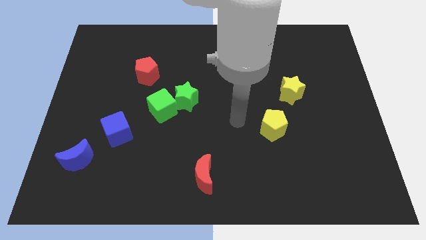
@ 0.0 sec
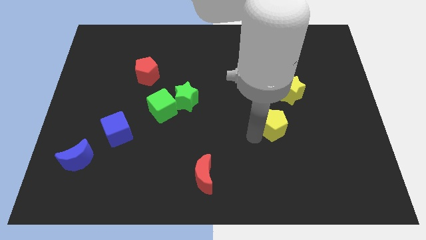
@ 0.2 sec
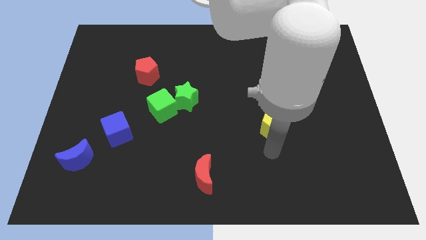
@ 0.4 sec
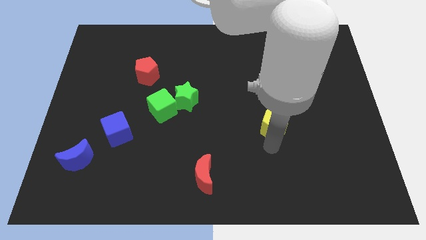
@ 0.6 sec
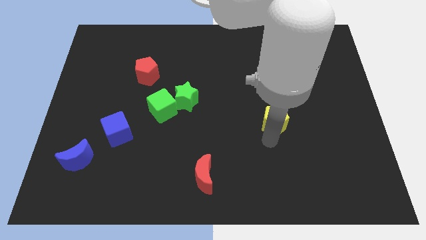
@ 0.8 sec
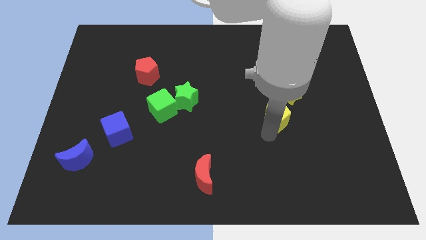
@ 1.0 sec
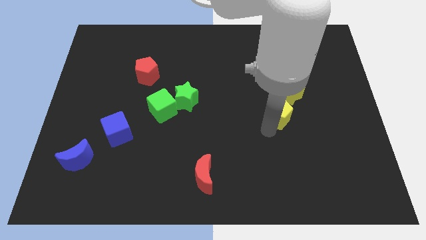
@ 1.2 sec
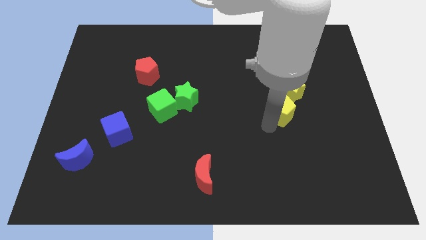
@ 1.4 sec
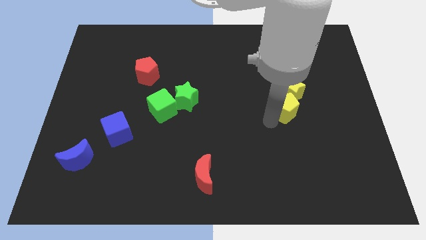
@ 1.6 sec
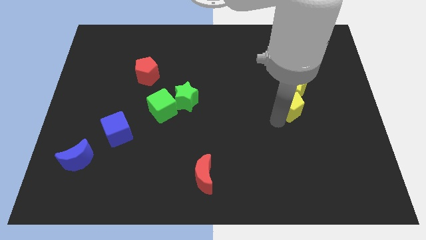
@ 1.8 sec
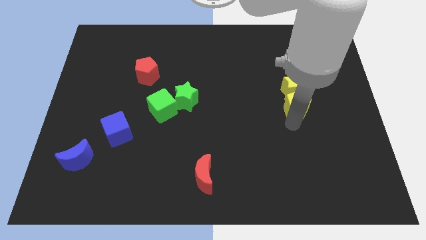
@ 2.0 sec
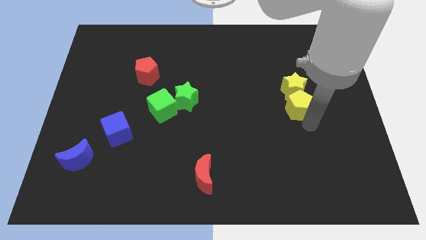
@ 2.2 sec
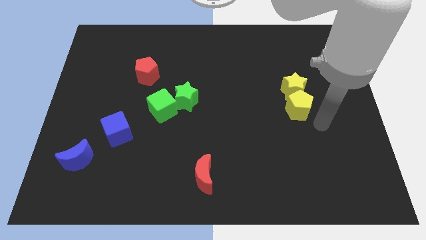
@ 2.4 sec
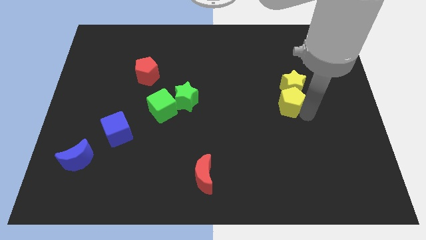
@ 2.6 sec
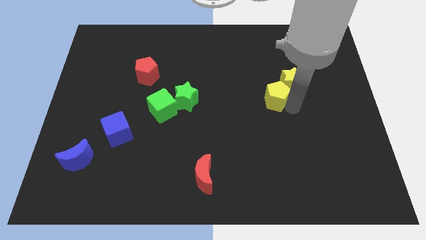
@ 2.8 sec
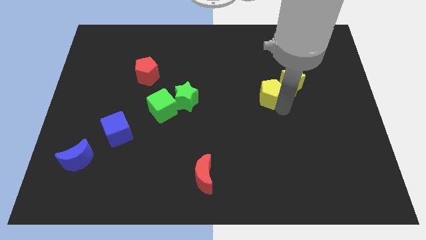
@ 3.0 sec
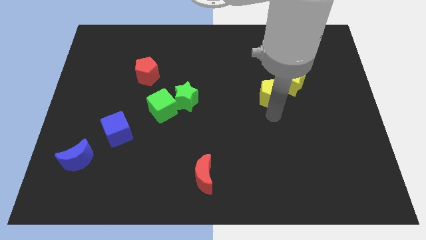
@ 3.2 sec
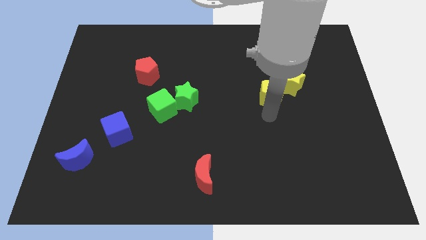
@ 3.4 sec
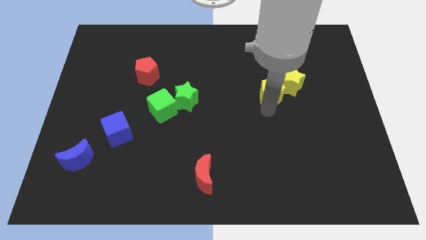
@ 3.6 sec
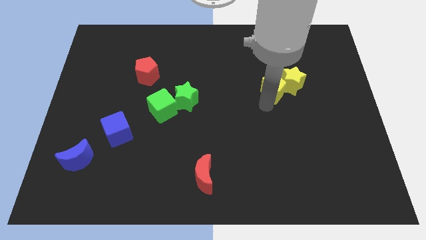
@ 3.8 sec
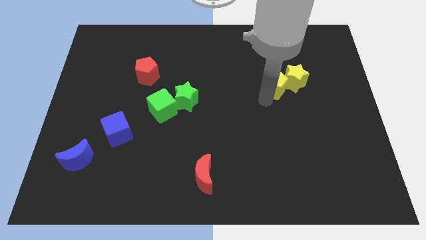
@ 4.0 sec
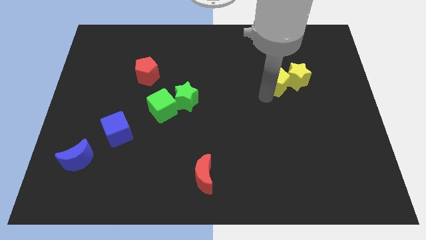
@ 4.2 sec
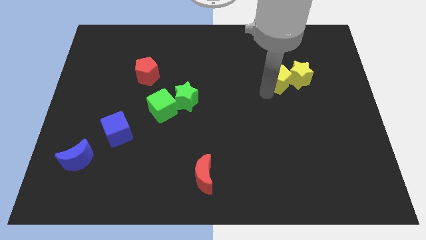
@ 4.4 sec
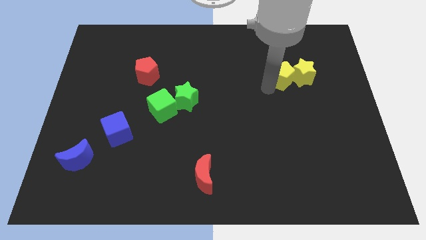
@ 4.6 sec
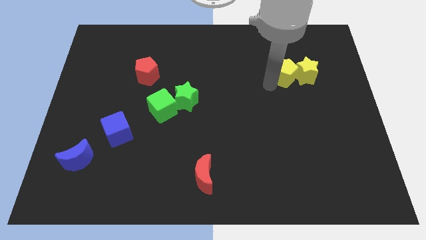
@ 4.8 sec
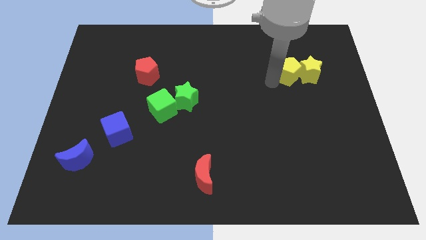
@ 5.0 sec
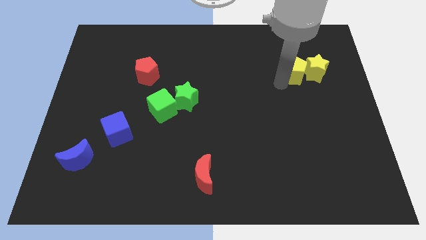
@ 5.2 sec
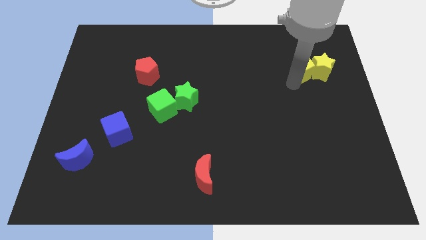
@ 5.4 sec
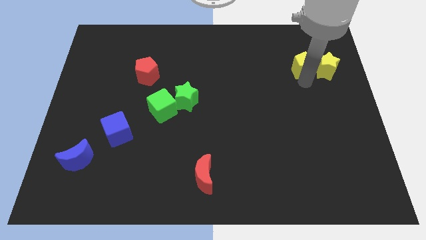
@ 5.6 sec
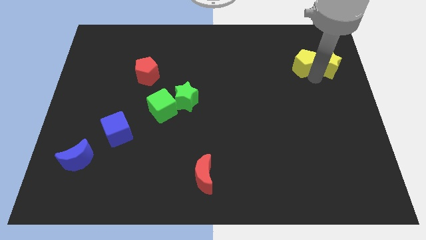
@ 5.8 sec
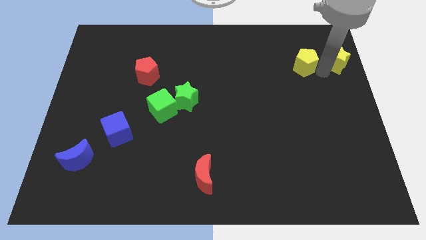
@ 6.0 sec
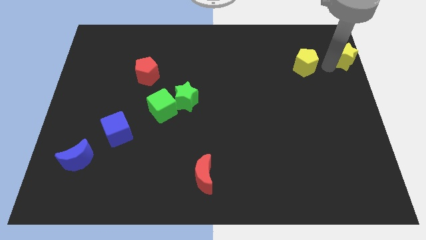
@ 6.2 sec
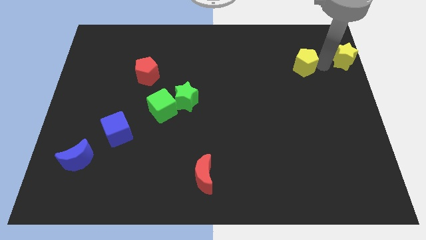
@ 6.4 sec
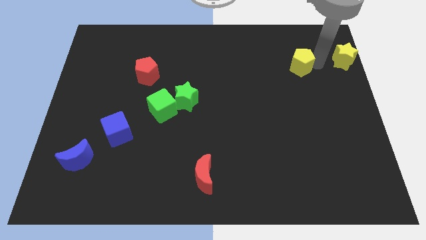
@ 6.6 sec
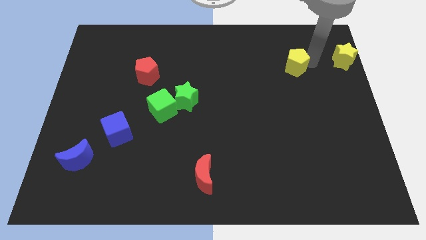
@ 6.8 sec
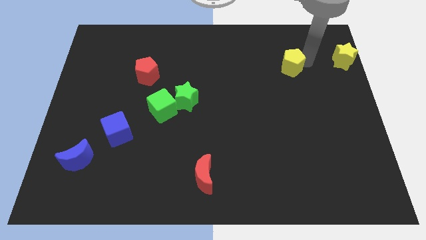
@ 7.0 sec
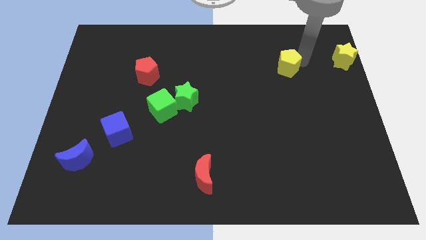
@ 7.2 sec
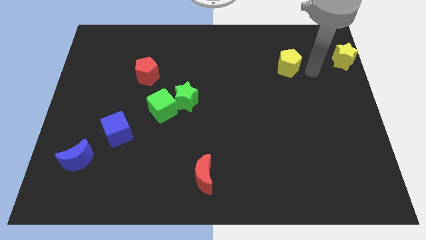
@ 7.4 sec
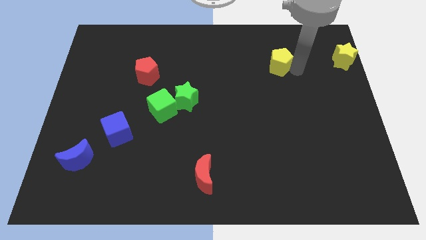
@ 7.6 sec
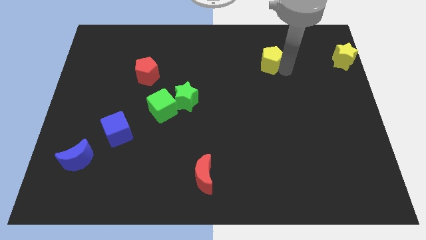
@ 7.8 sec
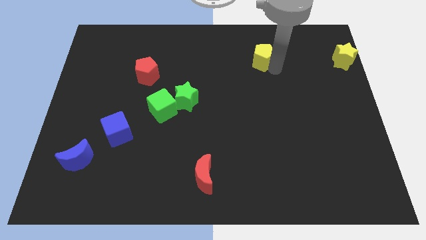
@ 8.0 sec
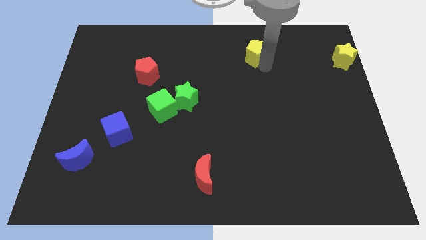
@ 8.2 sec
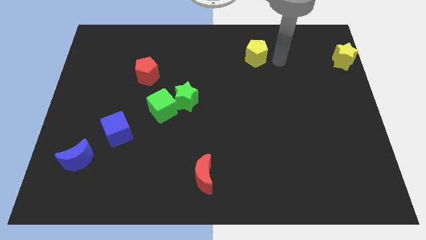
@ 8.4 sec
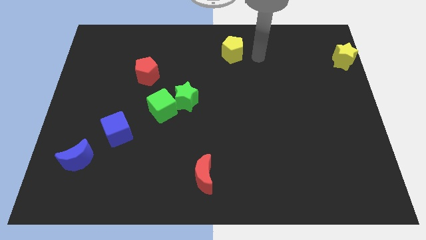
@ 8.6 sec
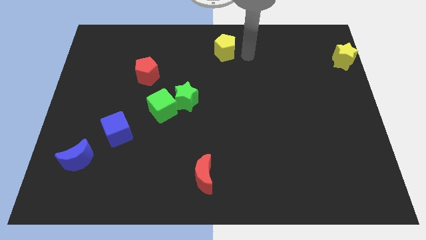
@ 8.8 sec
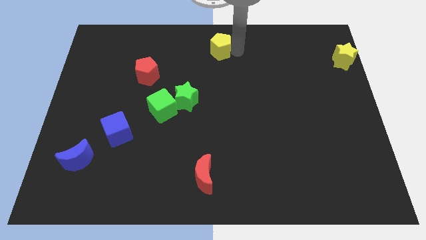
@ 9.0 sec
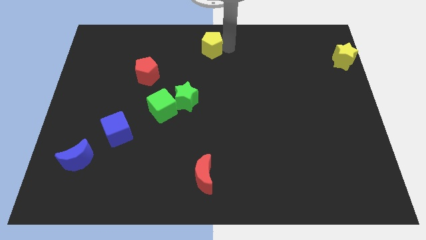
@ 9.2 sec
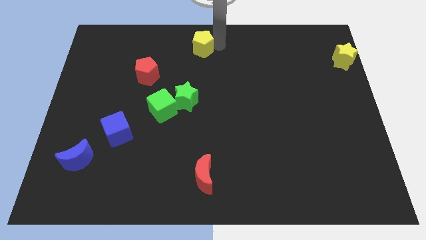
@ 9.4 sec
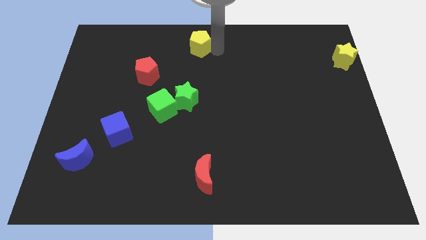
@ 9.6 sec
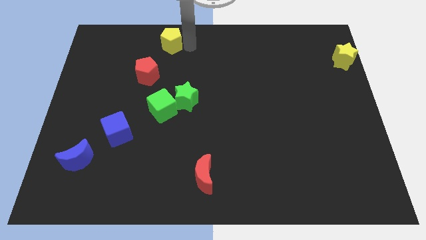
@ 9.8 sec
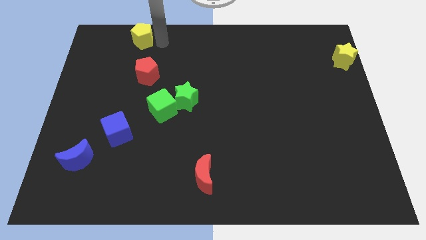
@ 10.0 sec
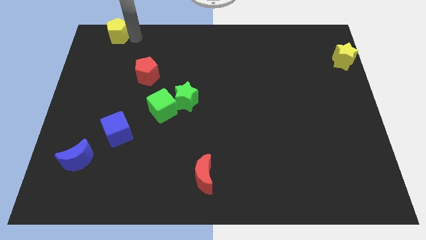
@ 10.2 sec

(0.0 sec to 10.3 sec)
push the yellow pentagon to the top left of the board
